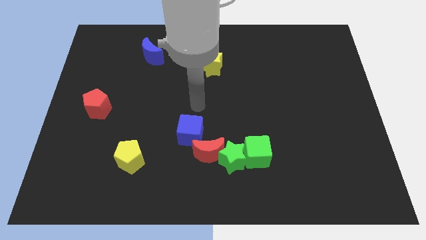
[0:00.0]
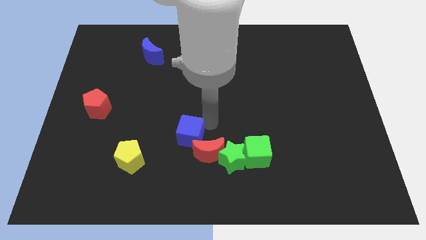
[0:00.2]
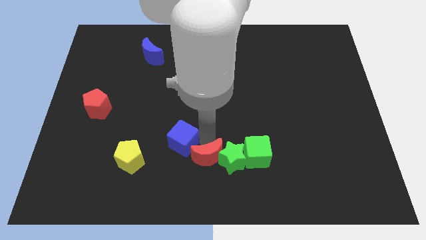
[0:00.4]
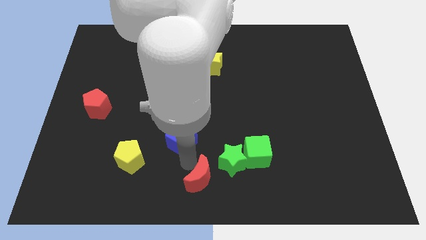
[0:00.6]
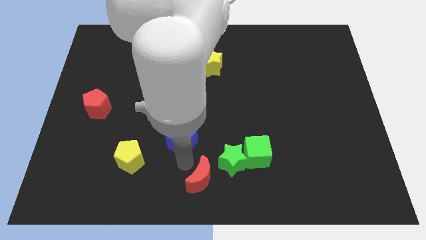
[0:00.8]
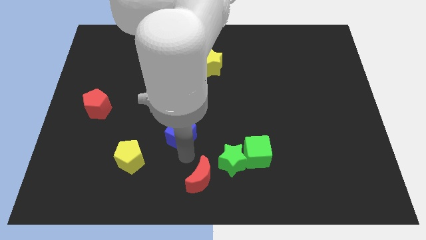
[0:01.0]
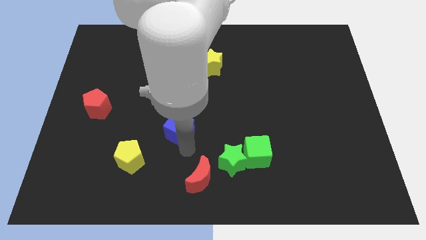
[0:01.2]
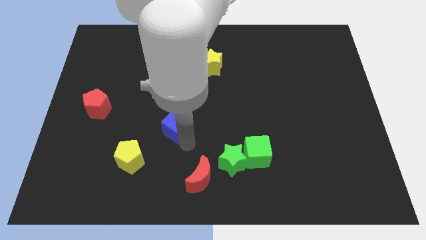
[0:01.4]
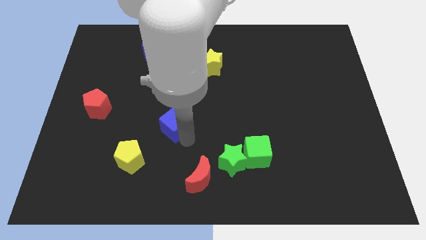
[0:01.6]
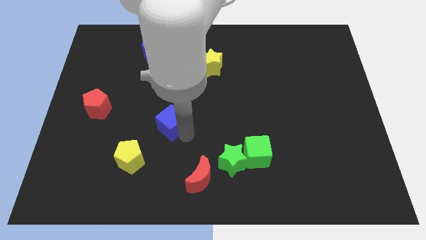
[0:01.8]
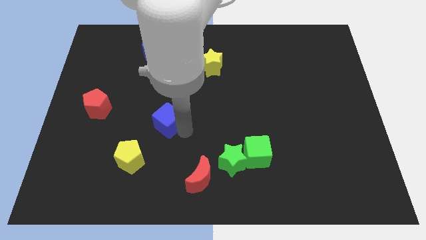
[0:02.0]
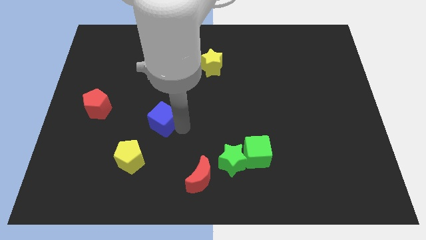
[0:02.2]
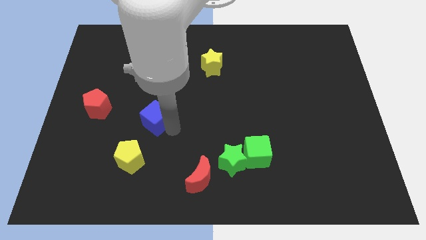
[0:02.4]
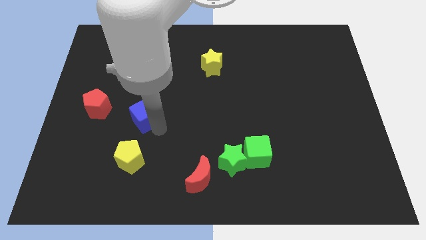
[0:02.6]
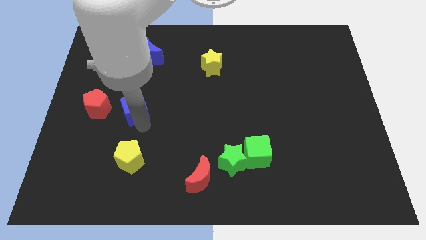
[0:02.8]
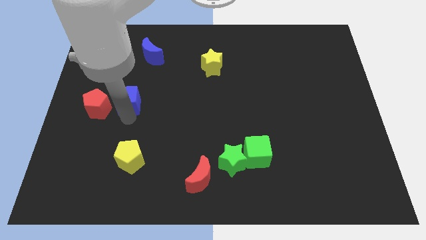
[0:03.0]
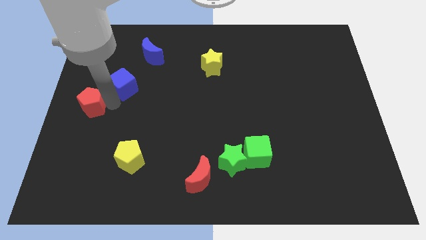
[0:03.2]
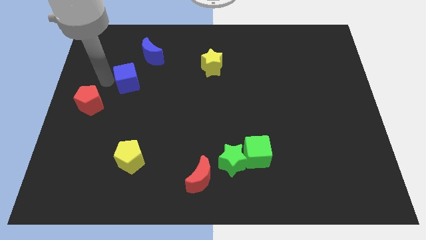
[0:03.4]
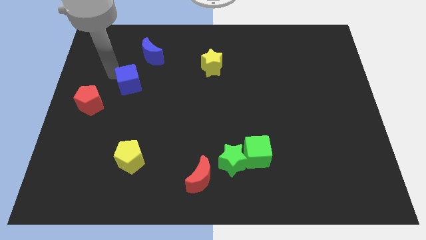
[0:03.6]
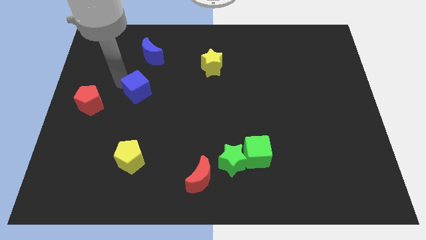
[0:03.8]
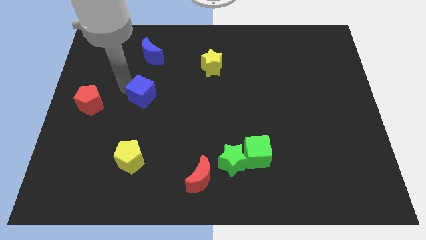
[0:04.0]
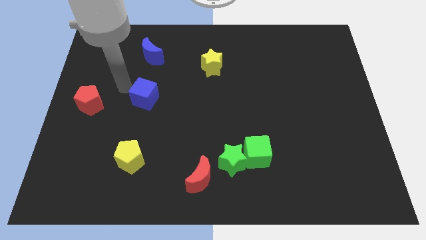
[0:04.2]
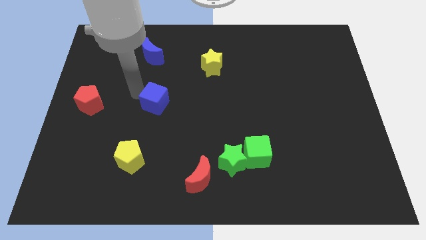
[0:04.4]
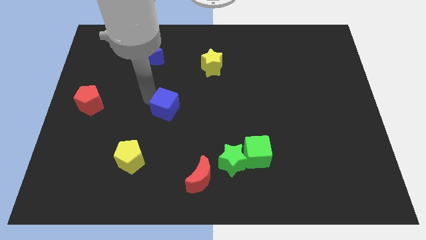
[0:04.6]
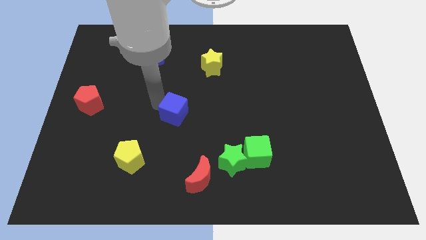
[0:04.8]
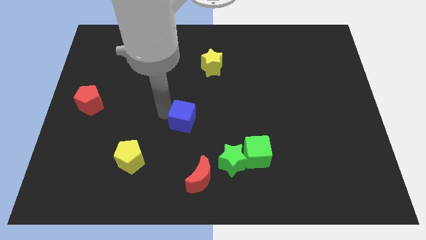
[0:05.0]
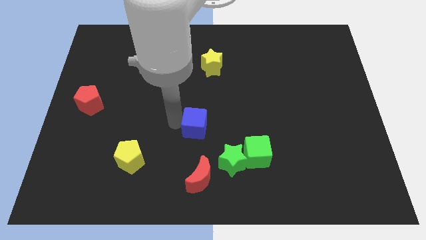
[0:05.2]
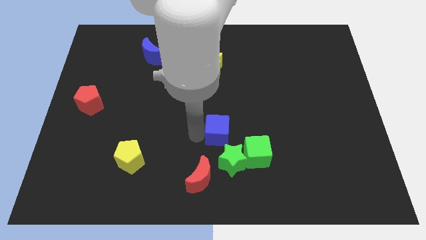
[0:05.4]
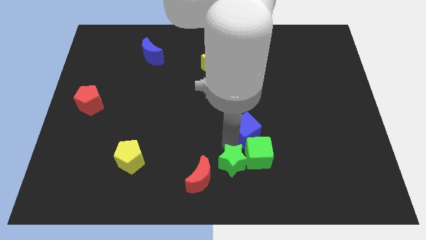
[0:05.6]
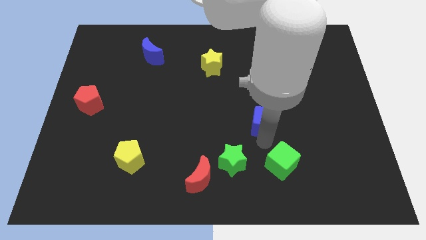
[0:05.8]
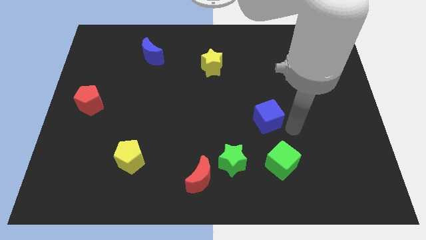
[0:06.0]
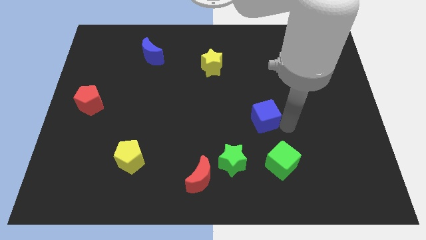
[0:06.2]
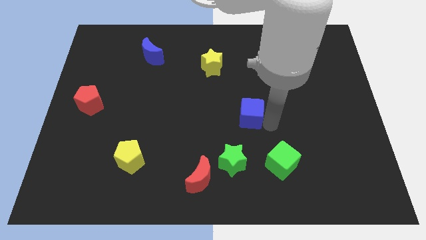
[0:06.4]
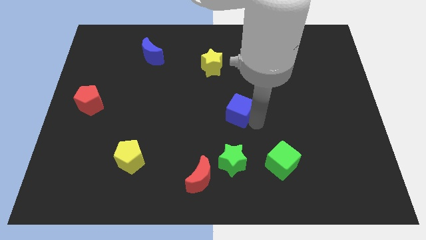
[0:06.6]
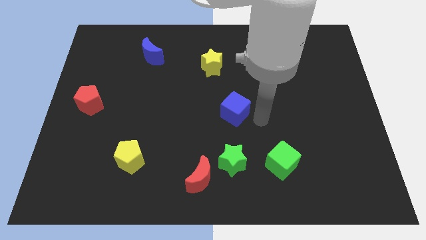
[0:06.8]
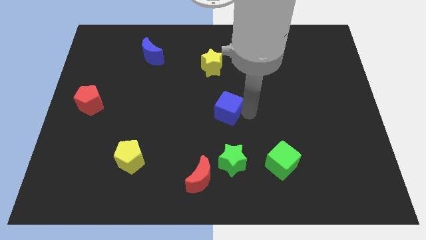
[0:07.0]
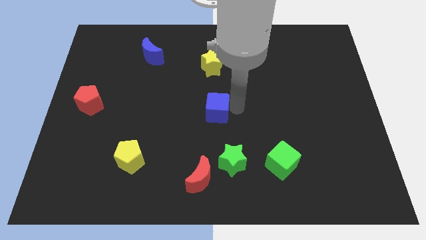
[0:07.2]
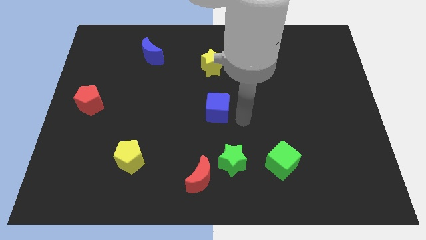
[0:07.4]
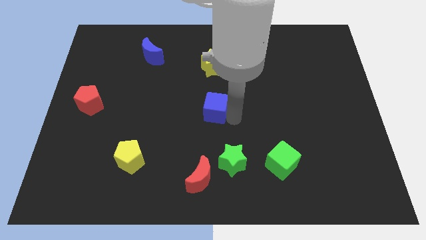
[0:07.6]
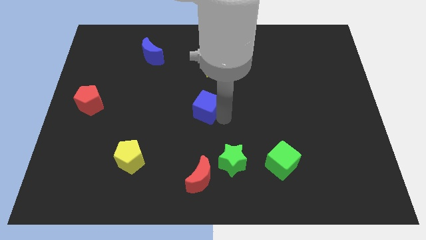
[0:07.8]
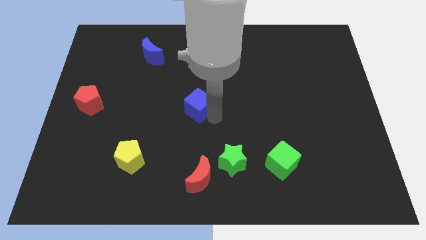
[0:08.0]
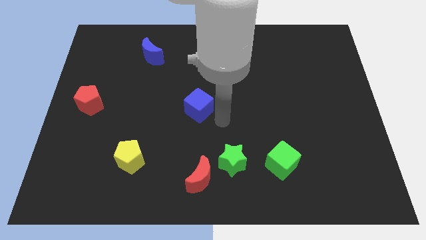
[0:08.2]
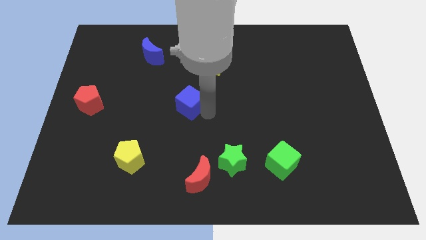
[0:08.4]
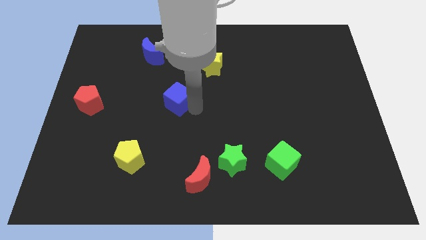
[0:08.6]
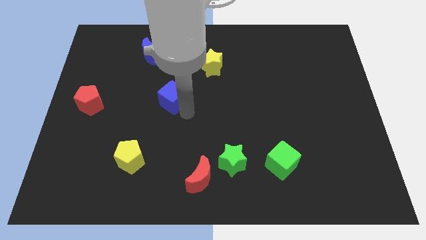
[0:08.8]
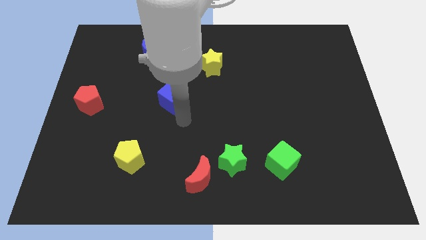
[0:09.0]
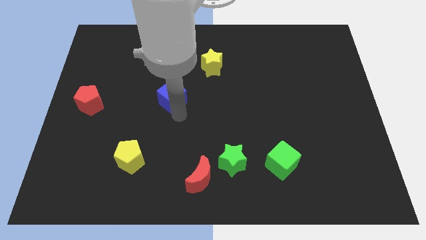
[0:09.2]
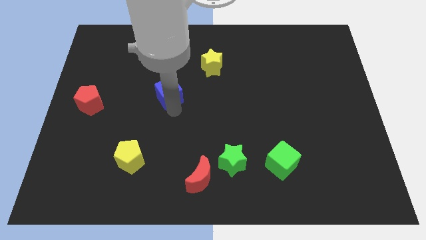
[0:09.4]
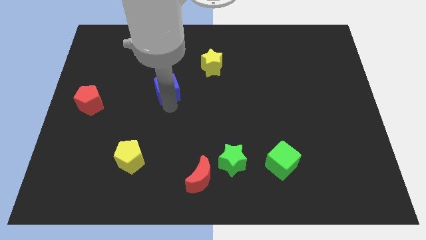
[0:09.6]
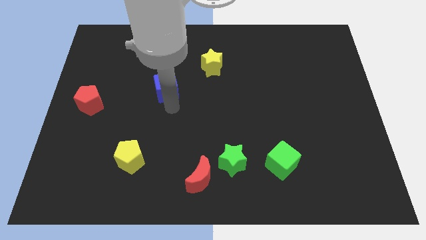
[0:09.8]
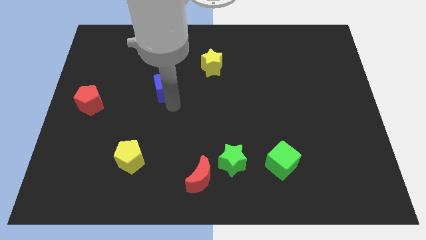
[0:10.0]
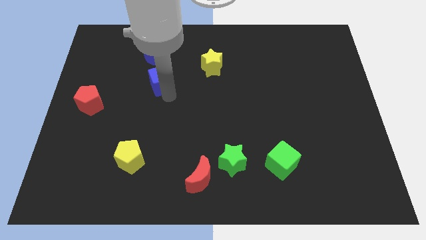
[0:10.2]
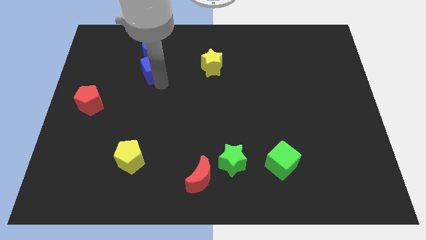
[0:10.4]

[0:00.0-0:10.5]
put the blue cube close to the blue moon

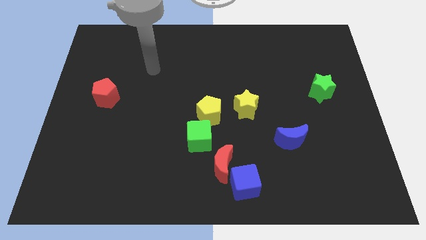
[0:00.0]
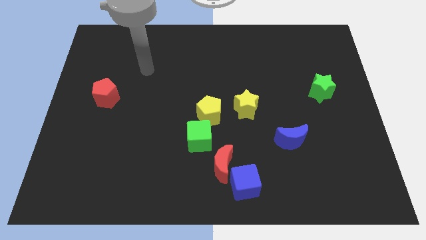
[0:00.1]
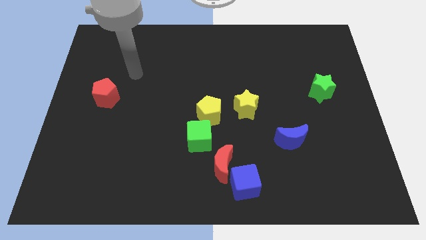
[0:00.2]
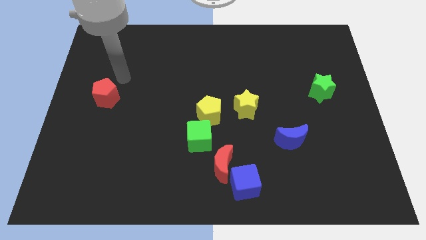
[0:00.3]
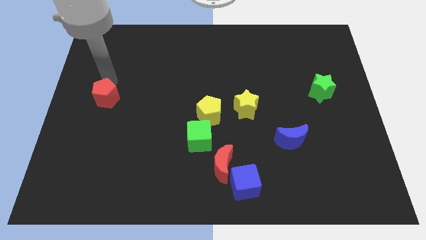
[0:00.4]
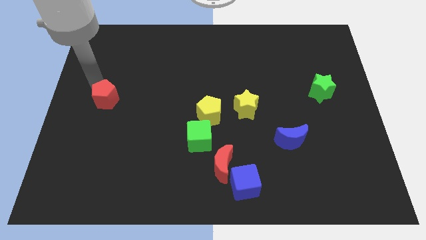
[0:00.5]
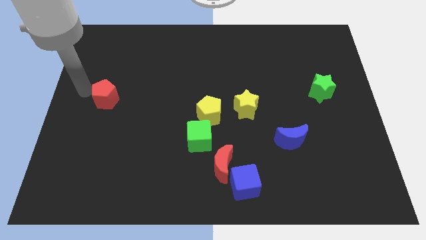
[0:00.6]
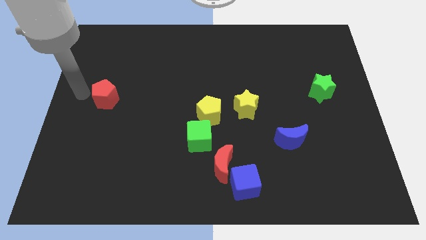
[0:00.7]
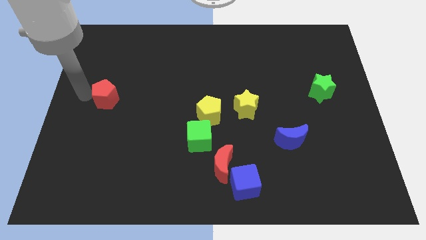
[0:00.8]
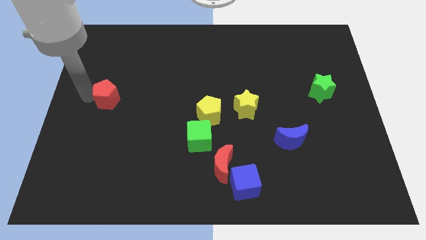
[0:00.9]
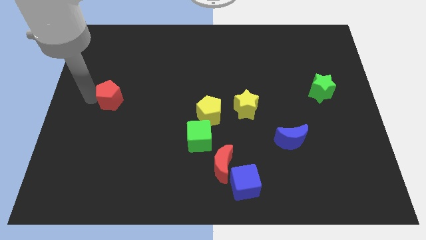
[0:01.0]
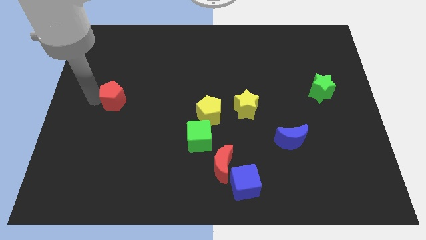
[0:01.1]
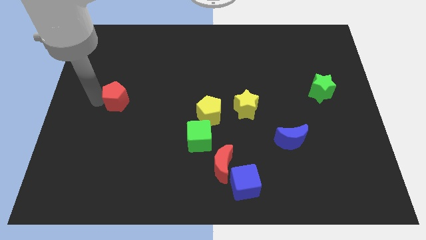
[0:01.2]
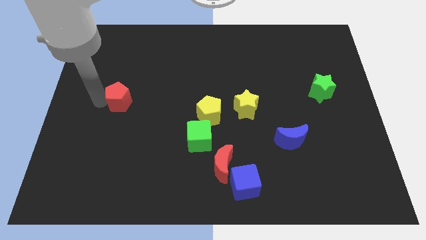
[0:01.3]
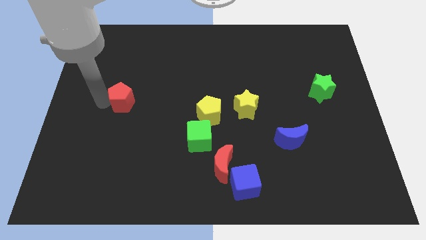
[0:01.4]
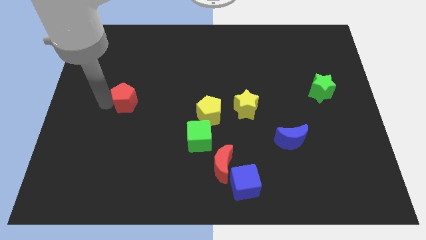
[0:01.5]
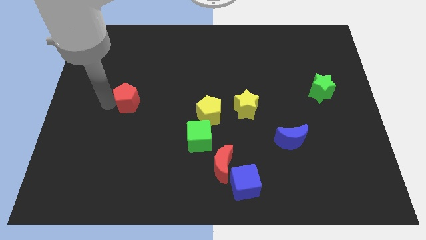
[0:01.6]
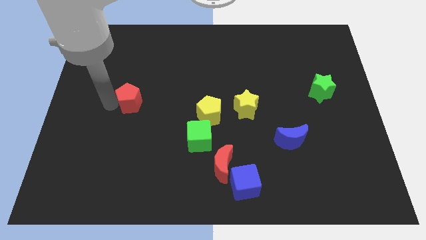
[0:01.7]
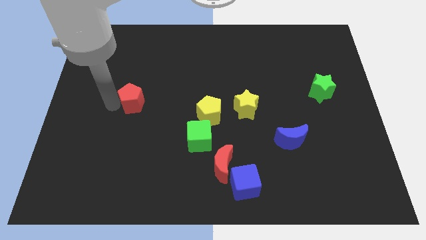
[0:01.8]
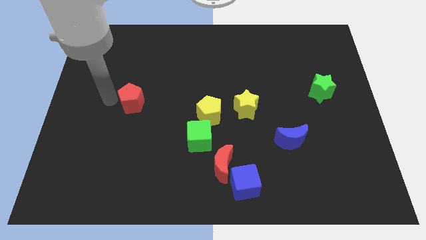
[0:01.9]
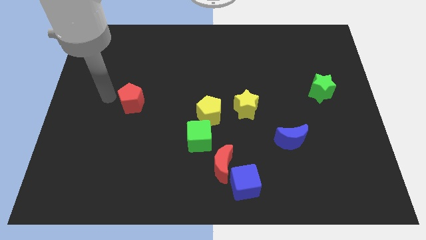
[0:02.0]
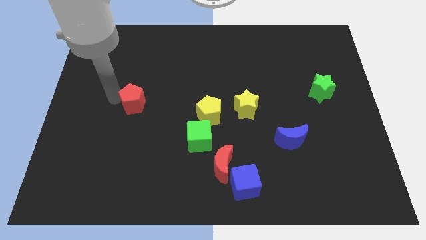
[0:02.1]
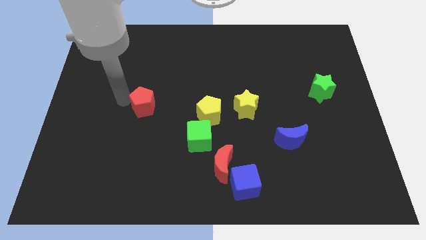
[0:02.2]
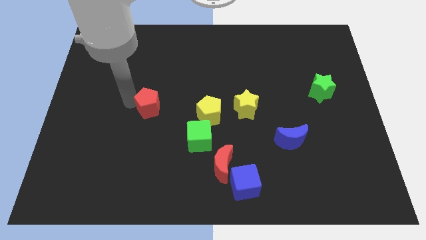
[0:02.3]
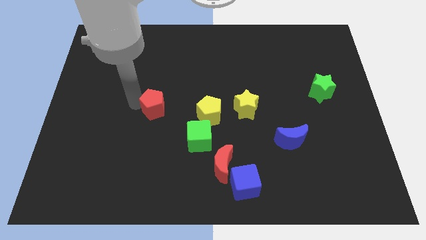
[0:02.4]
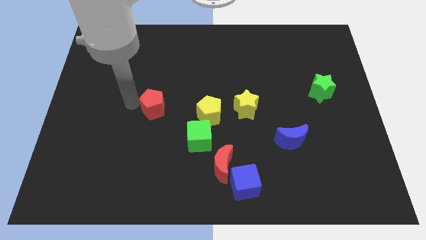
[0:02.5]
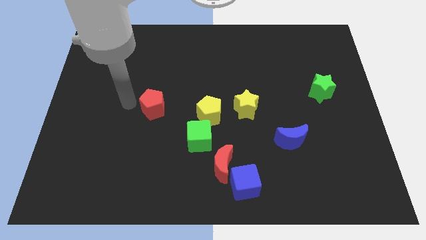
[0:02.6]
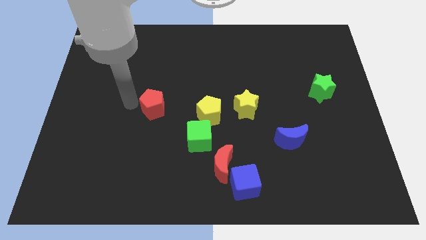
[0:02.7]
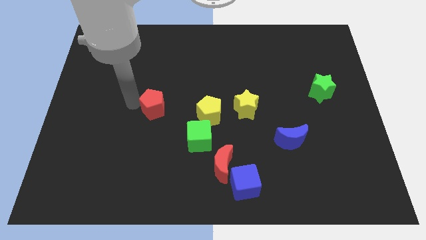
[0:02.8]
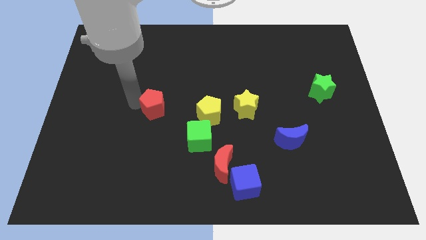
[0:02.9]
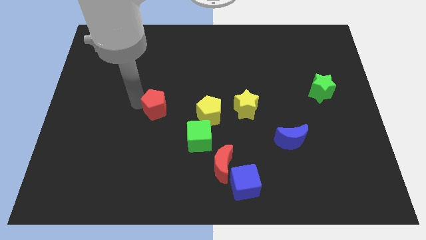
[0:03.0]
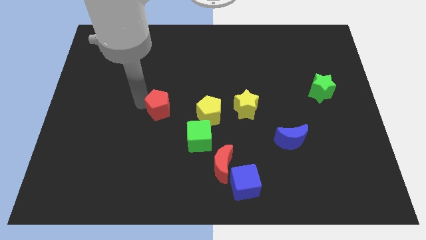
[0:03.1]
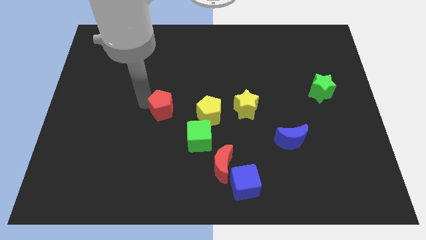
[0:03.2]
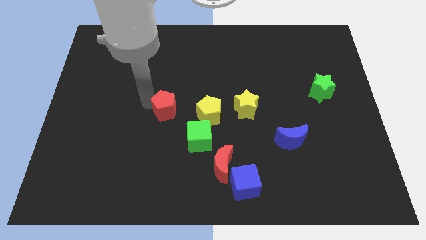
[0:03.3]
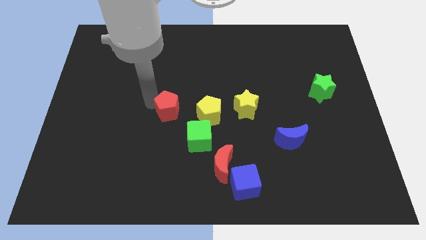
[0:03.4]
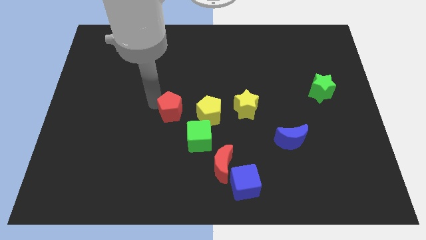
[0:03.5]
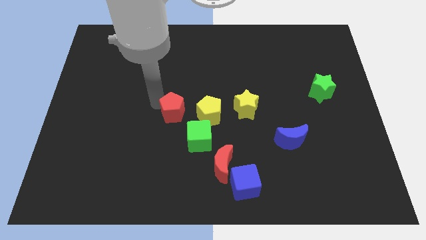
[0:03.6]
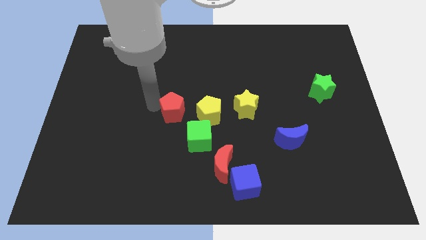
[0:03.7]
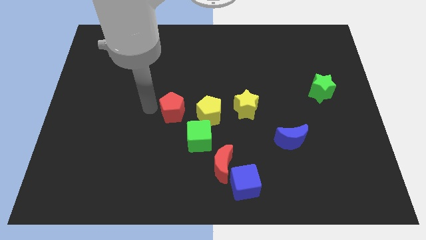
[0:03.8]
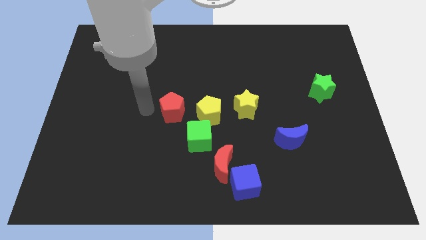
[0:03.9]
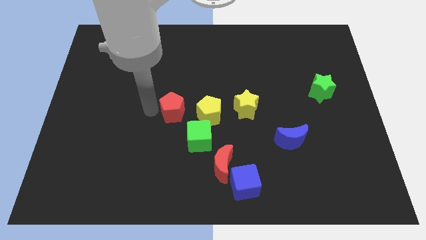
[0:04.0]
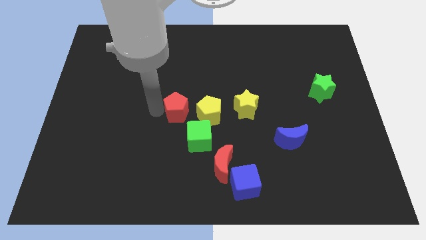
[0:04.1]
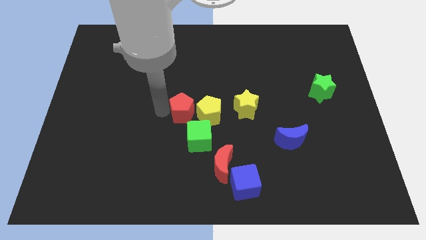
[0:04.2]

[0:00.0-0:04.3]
put the red pentagon to the yellow pentagon
